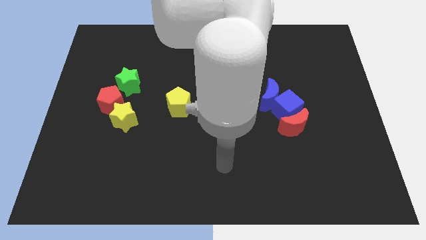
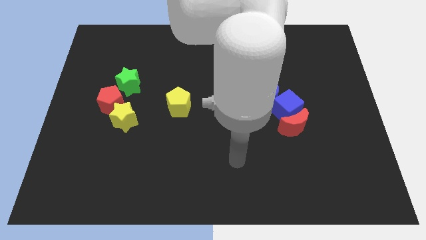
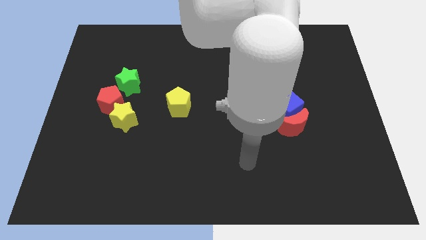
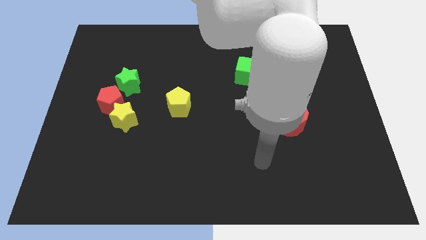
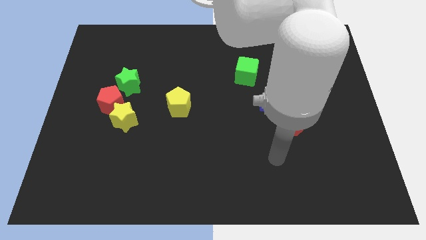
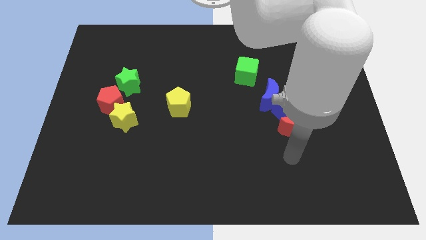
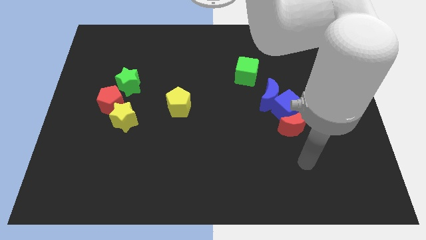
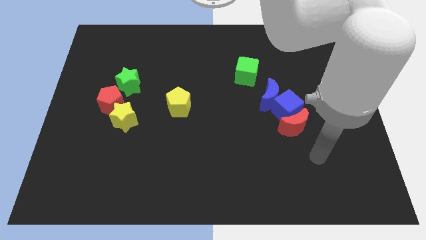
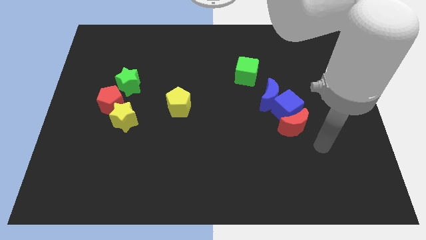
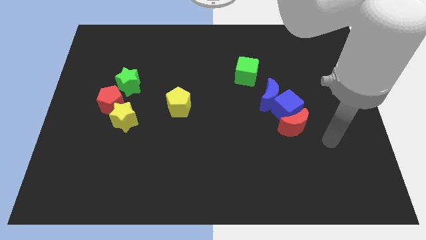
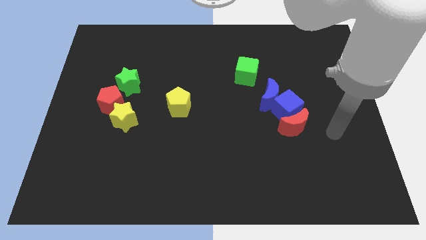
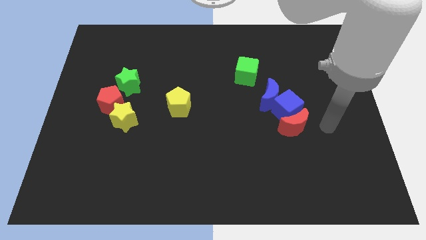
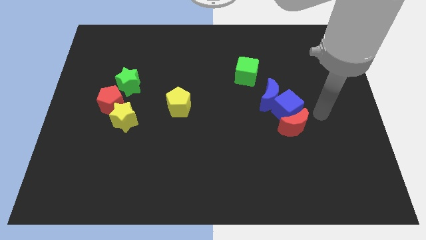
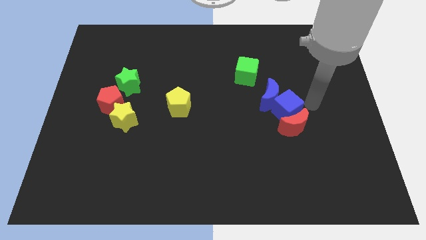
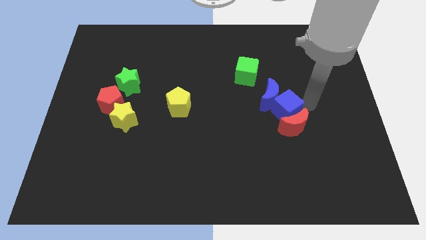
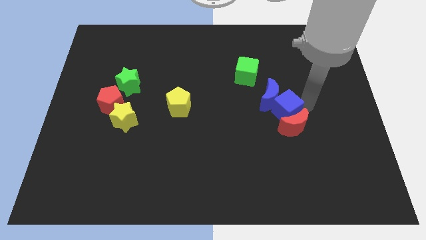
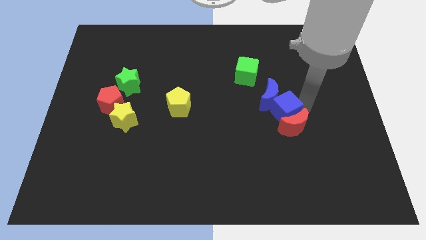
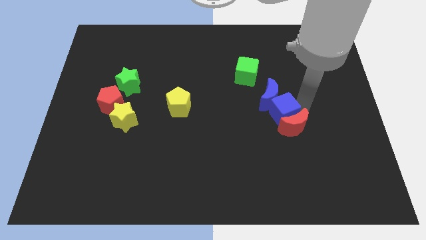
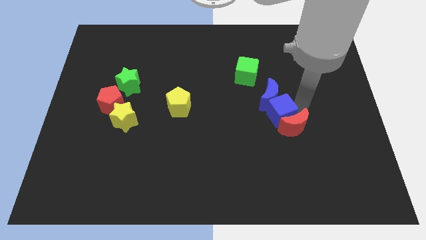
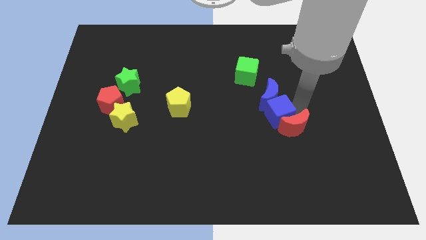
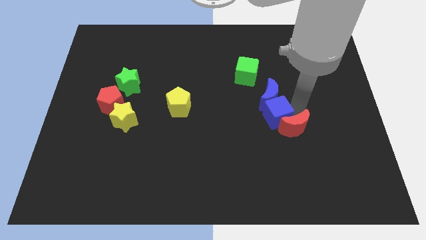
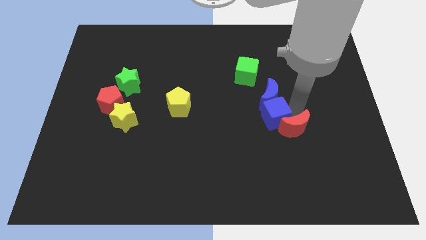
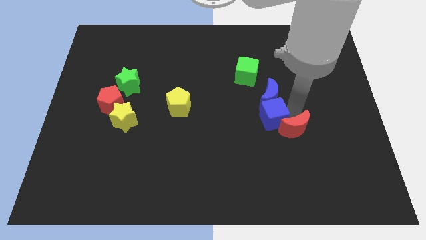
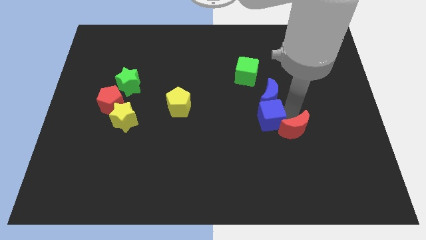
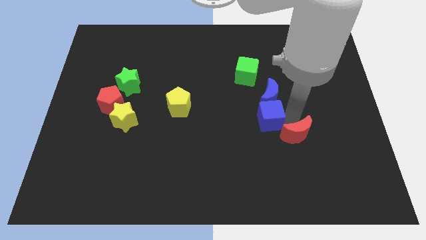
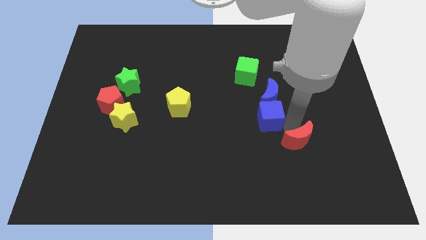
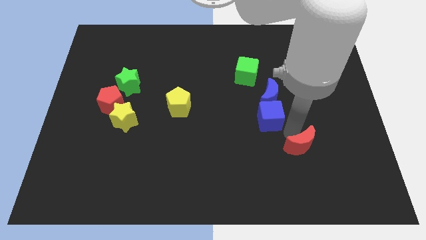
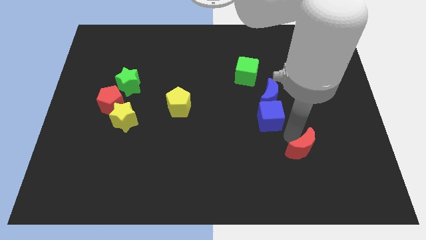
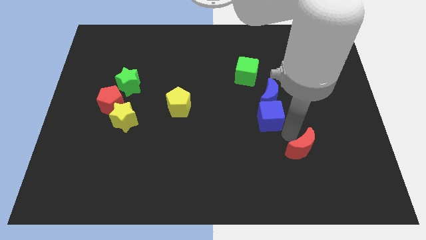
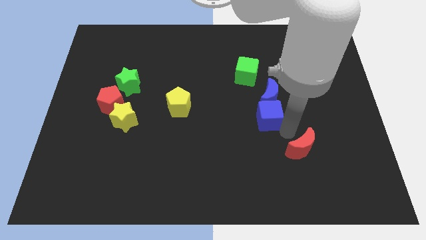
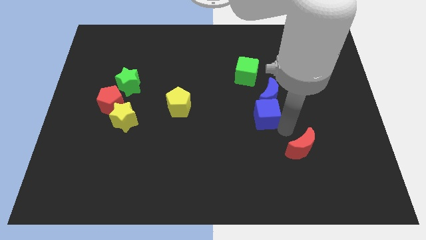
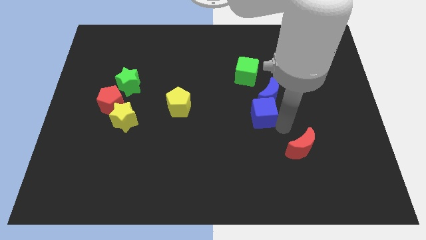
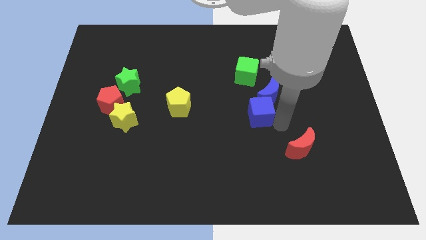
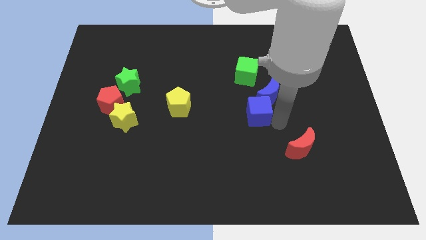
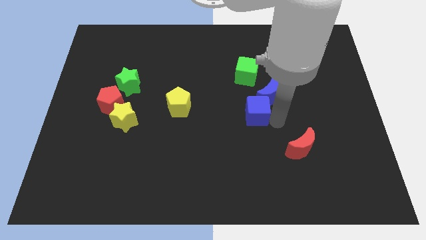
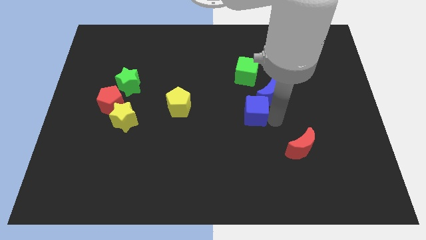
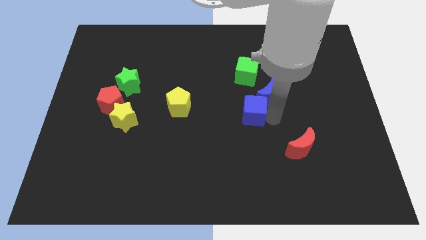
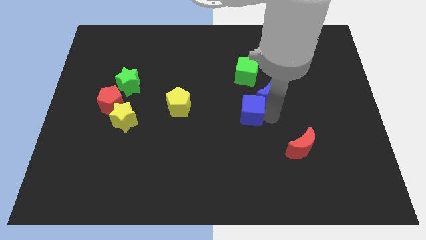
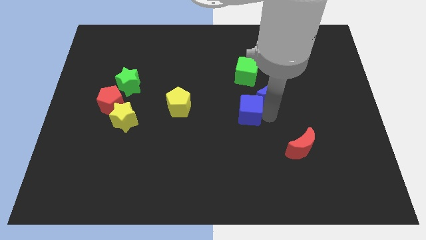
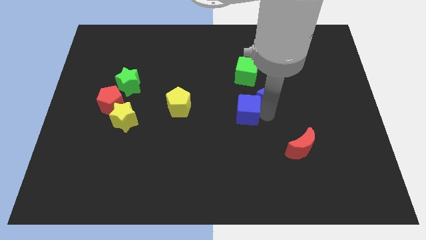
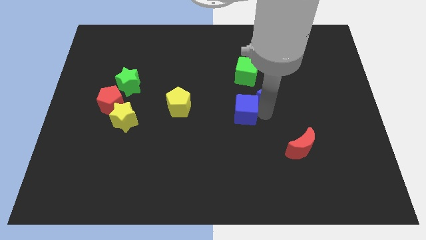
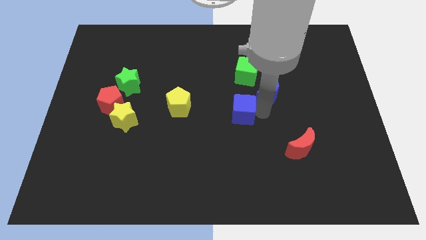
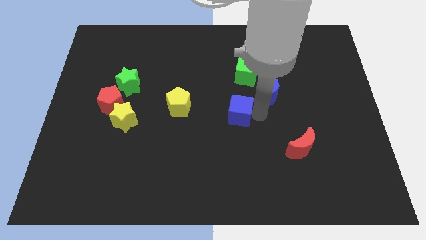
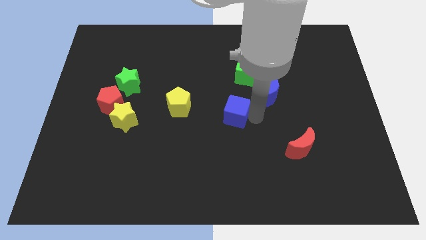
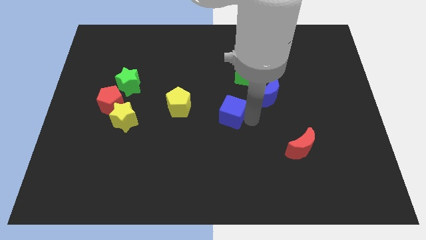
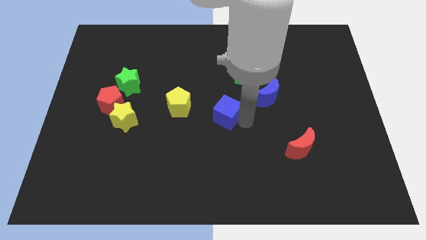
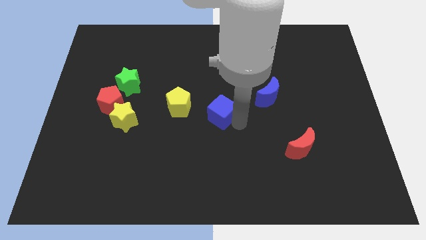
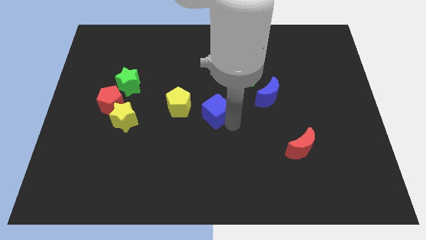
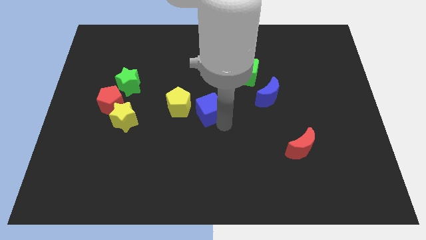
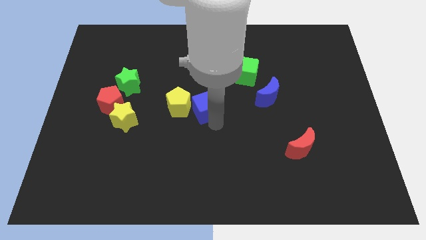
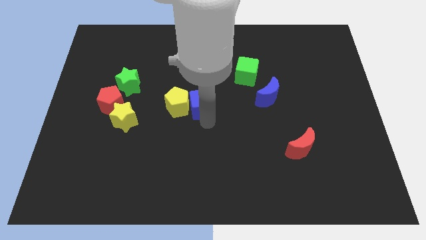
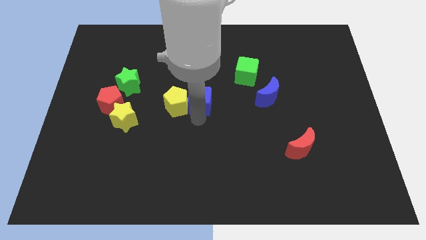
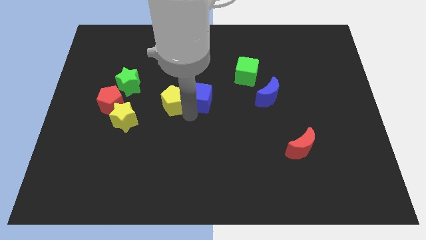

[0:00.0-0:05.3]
push the blue cube a little bit up and to the left diagonally

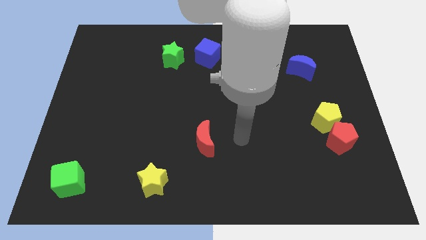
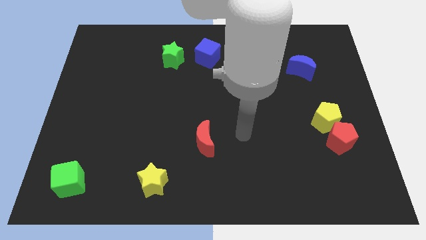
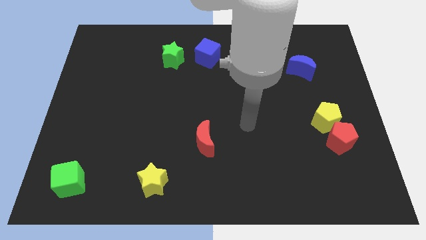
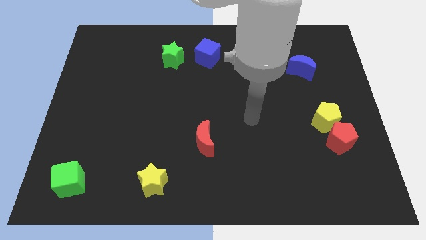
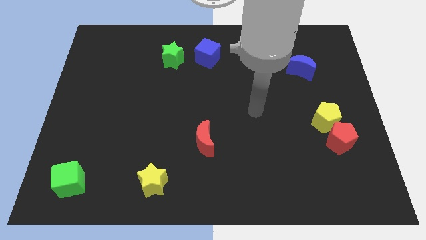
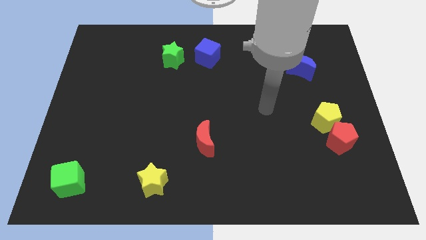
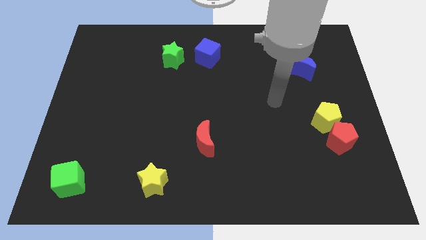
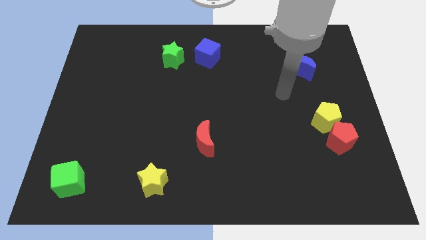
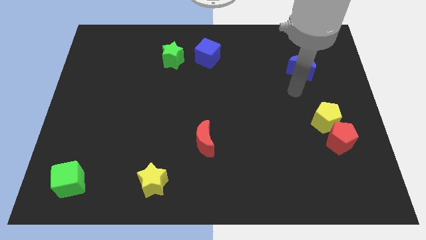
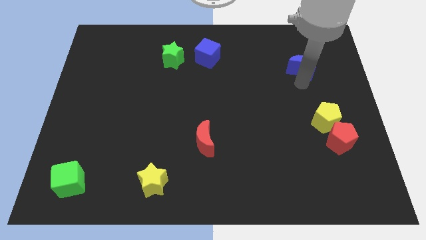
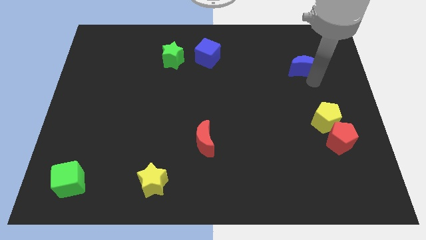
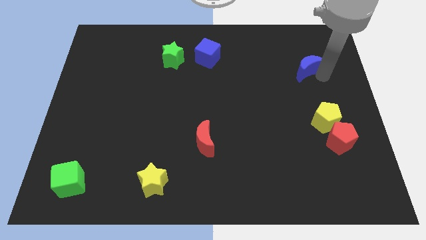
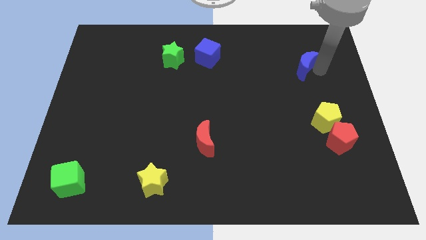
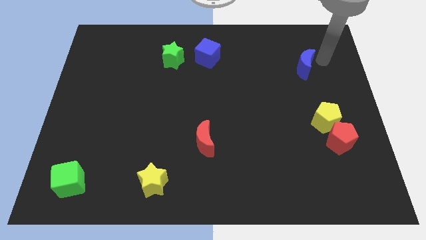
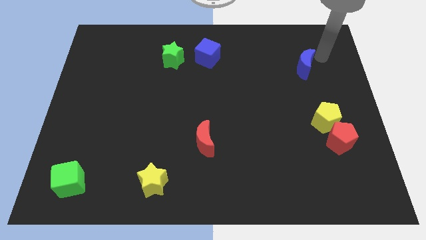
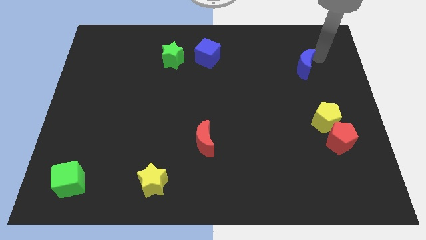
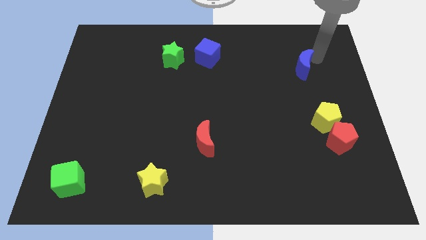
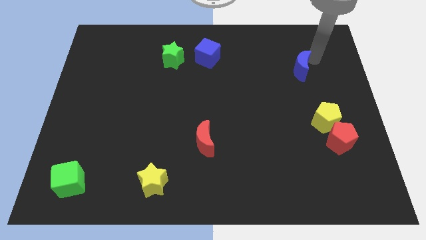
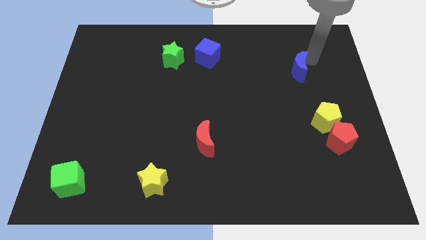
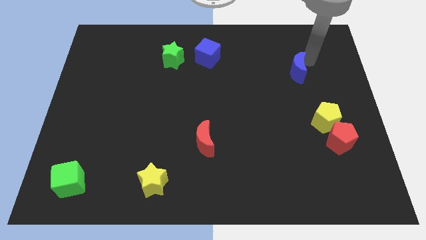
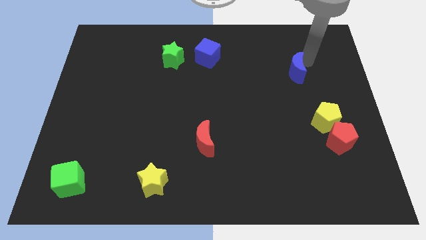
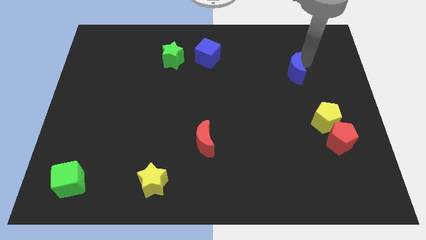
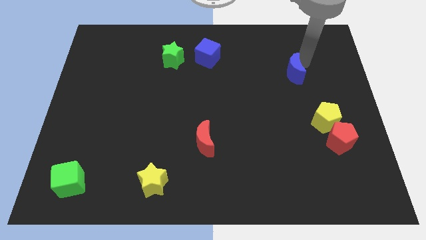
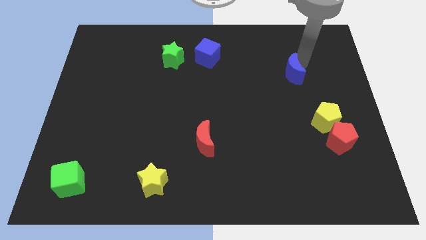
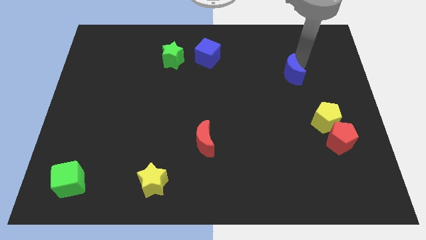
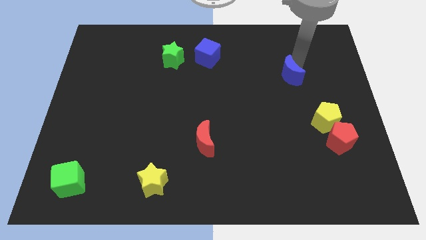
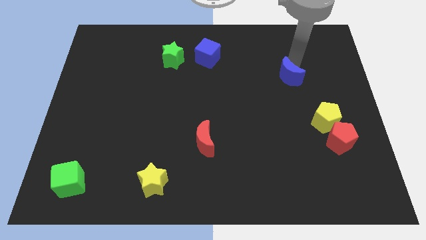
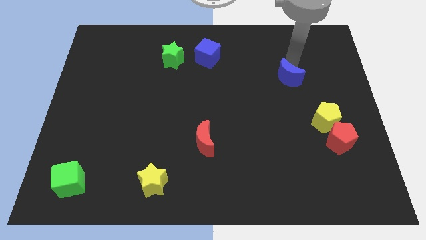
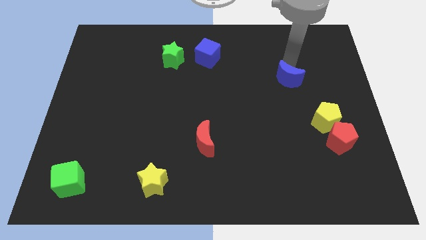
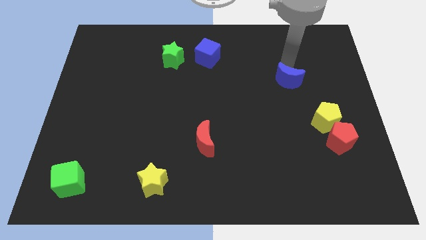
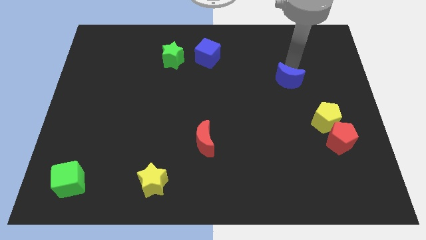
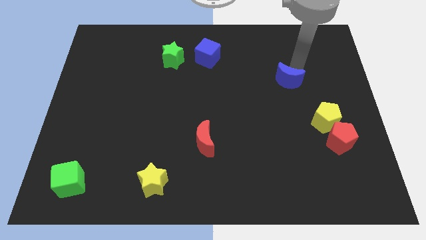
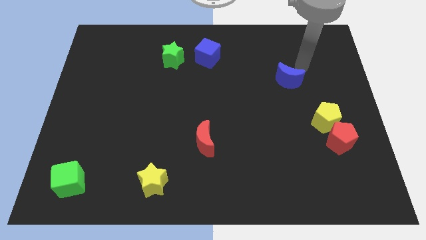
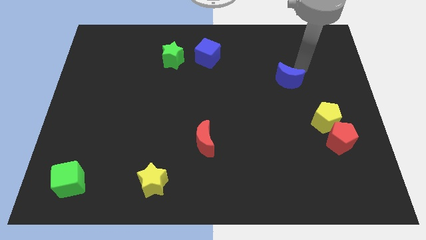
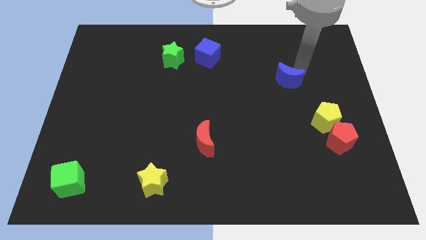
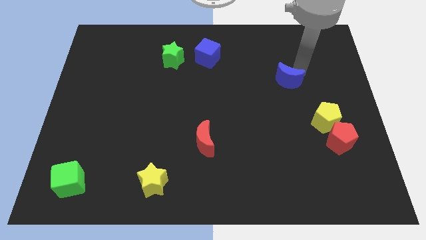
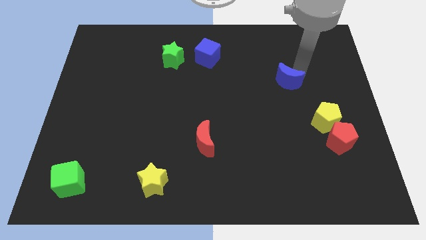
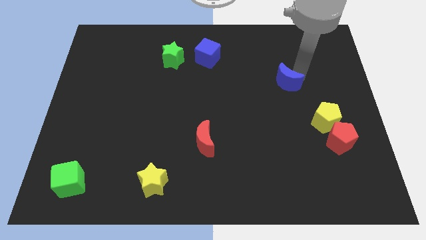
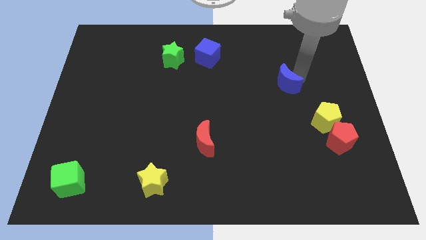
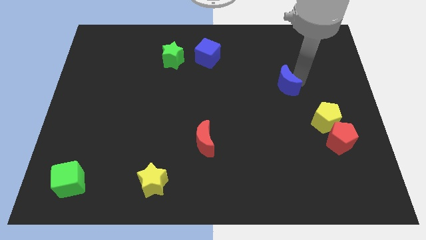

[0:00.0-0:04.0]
push the blue moon slightly diagonally down and left
